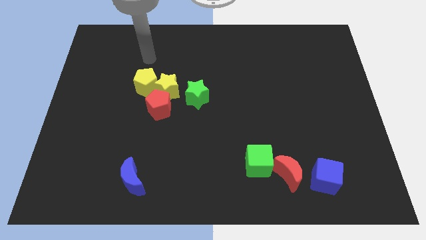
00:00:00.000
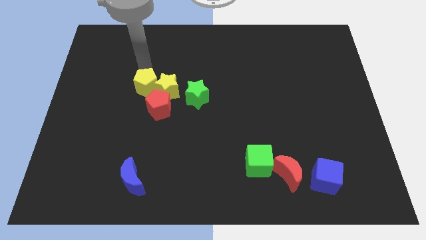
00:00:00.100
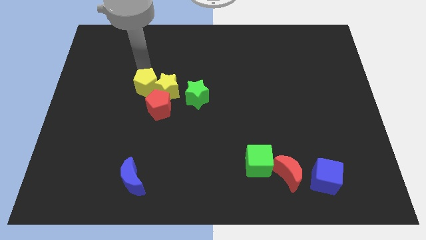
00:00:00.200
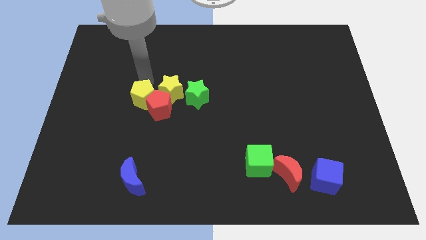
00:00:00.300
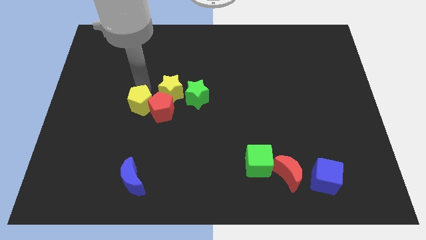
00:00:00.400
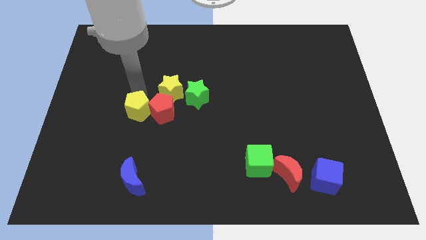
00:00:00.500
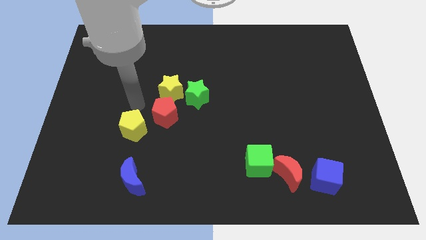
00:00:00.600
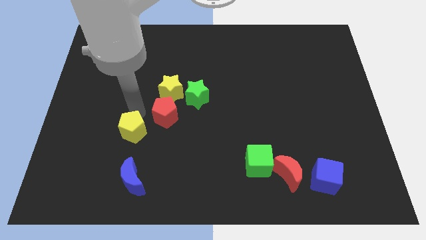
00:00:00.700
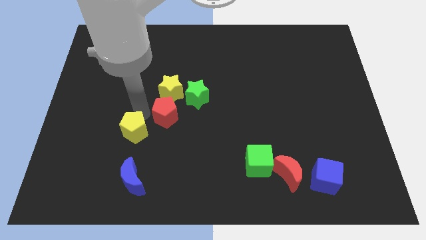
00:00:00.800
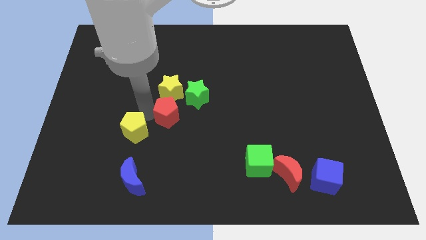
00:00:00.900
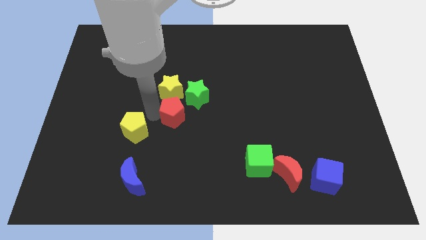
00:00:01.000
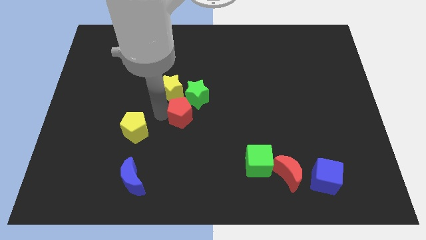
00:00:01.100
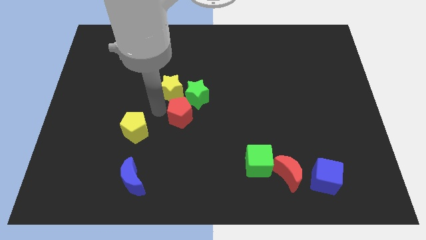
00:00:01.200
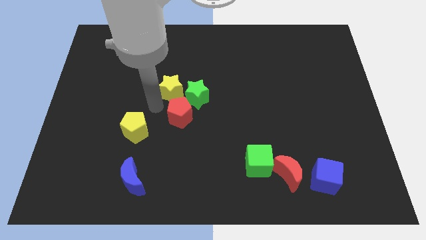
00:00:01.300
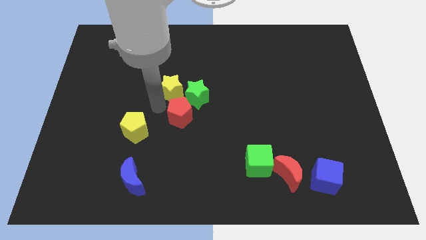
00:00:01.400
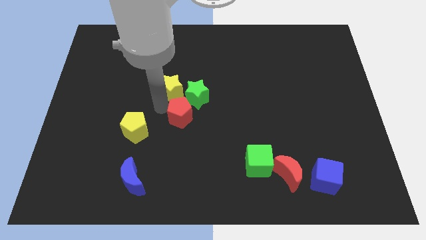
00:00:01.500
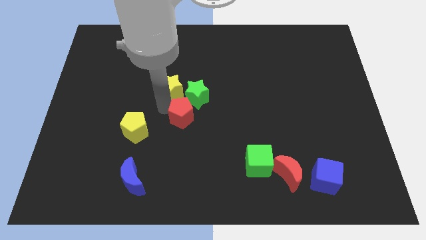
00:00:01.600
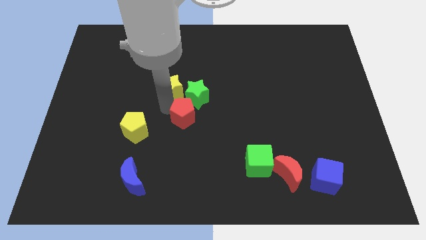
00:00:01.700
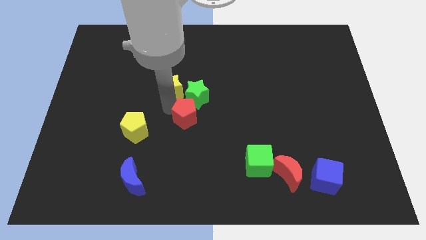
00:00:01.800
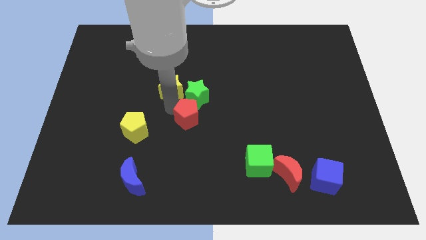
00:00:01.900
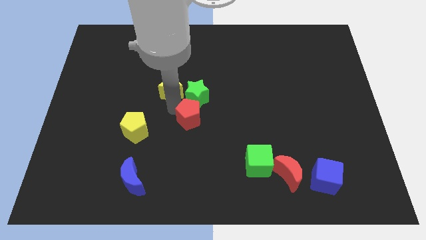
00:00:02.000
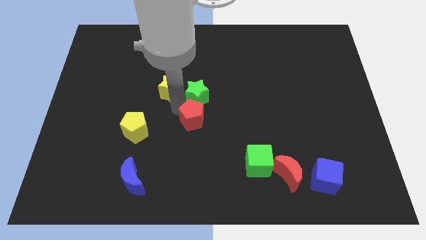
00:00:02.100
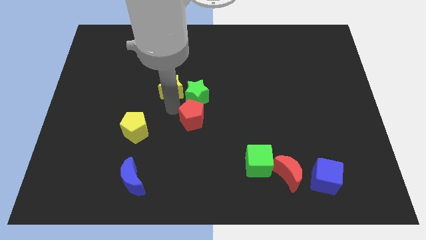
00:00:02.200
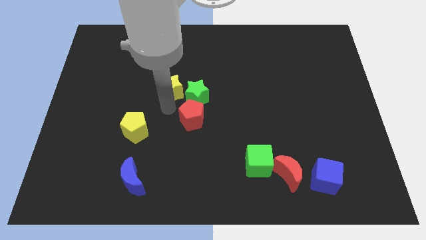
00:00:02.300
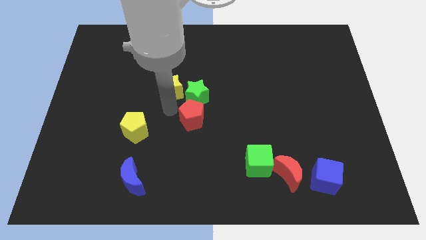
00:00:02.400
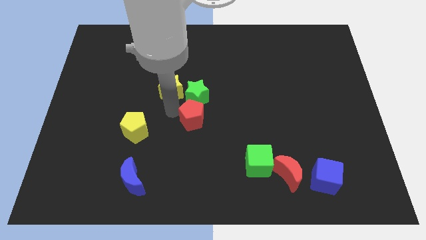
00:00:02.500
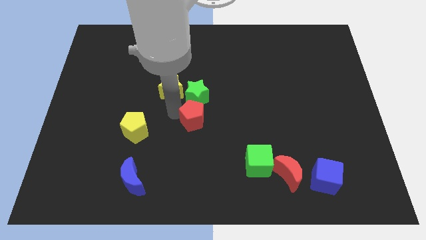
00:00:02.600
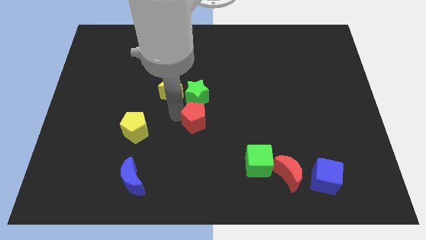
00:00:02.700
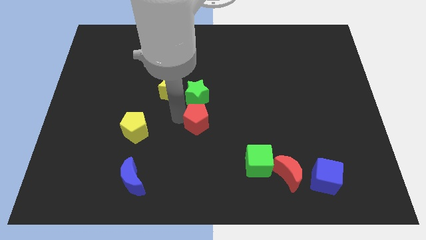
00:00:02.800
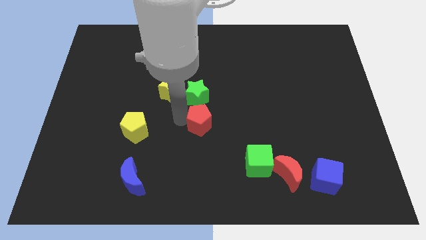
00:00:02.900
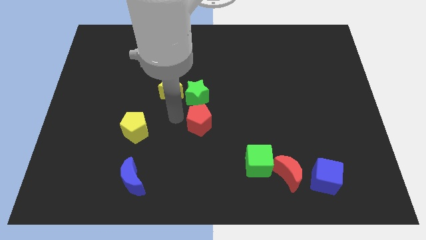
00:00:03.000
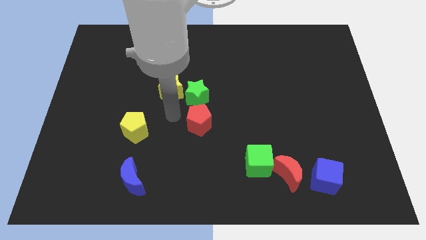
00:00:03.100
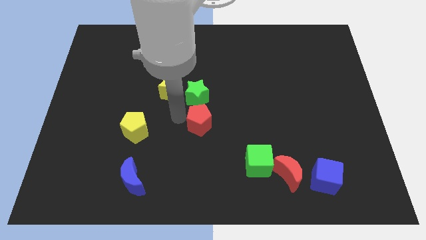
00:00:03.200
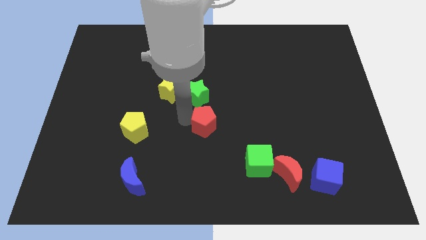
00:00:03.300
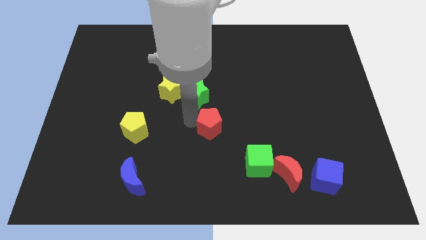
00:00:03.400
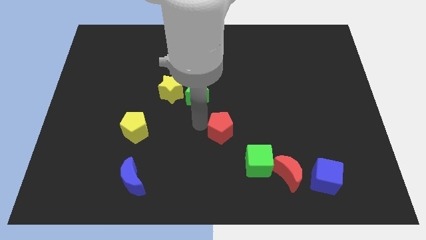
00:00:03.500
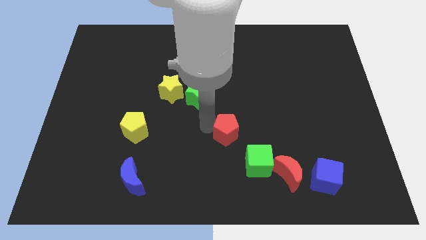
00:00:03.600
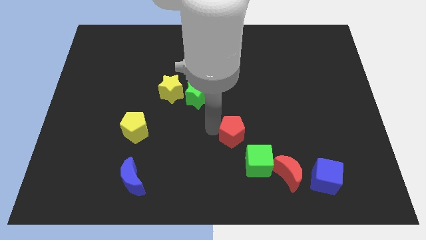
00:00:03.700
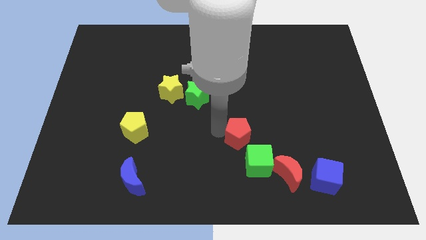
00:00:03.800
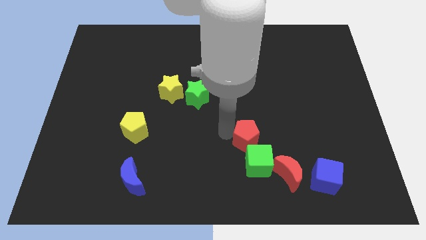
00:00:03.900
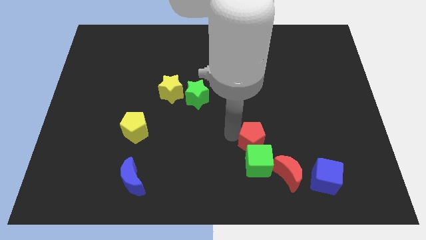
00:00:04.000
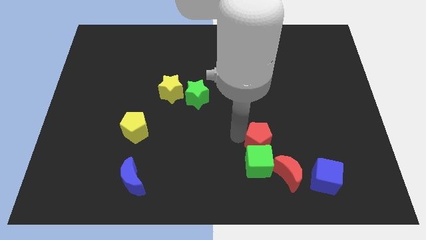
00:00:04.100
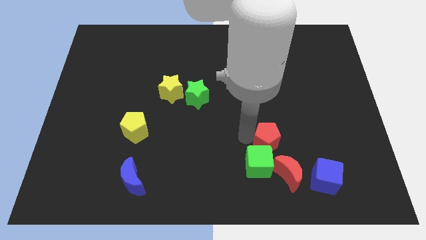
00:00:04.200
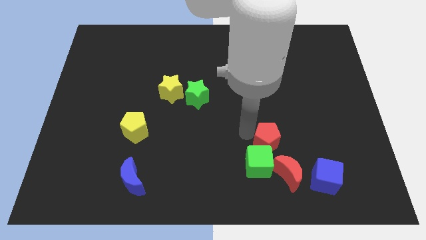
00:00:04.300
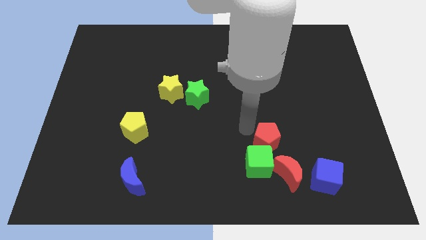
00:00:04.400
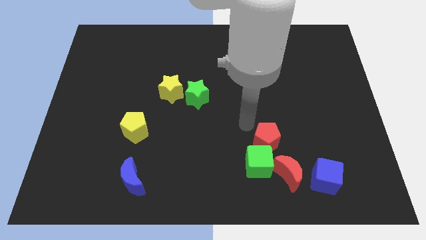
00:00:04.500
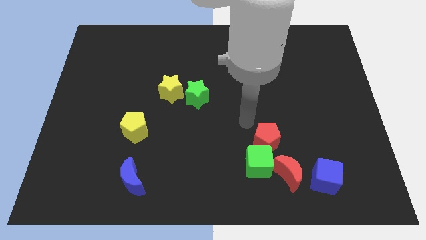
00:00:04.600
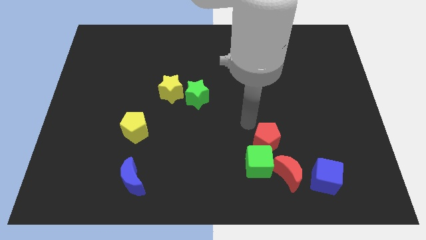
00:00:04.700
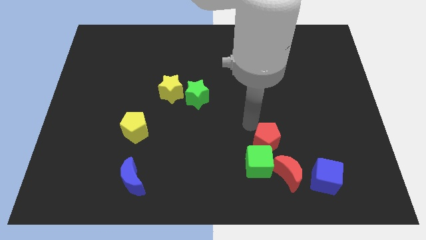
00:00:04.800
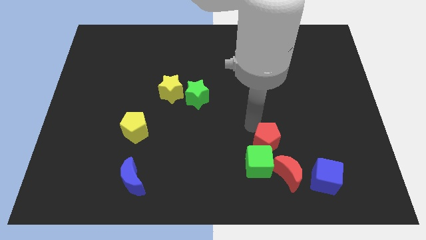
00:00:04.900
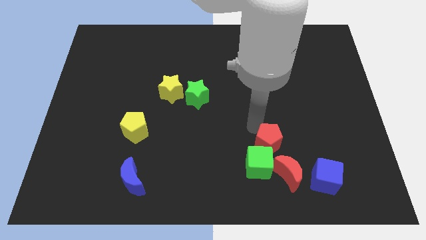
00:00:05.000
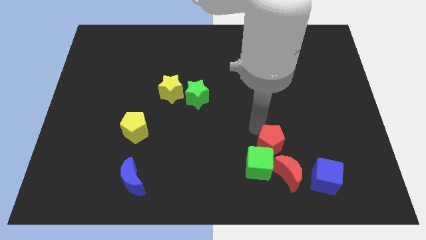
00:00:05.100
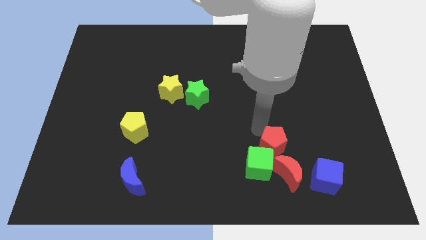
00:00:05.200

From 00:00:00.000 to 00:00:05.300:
put the red pentagon diagonally up and to the left of the blue cube

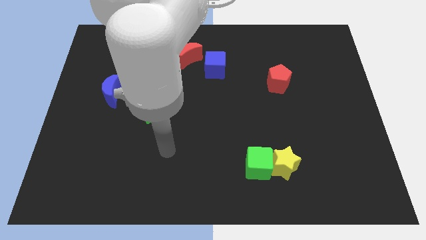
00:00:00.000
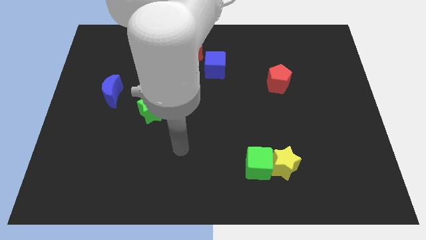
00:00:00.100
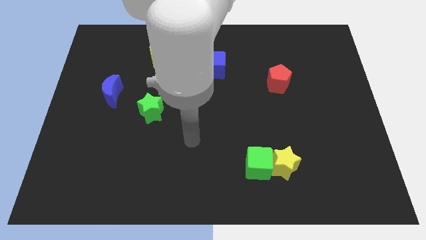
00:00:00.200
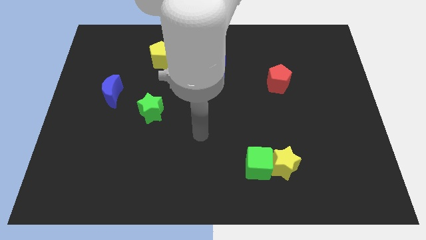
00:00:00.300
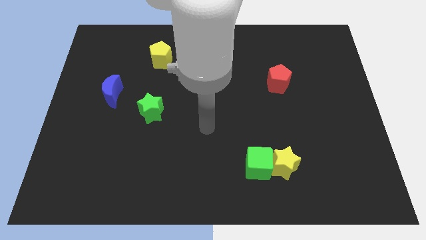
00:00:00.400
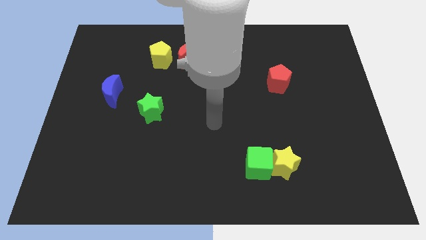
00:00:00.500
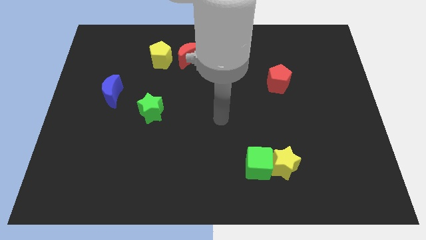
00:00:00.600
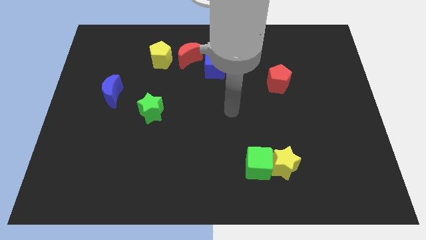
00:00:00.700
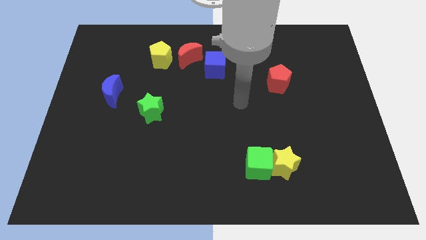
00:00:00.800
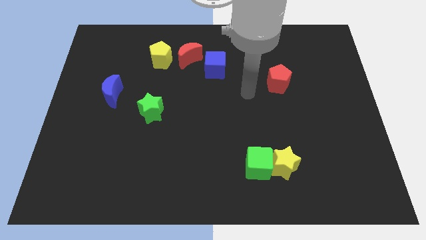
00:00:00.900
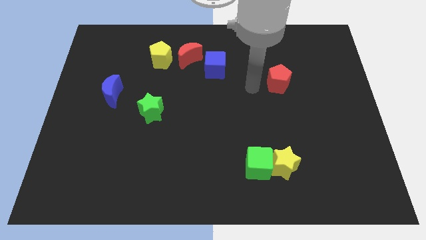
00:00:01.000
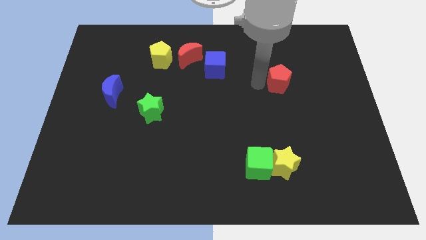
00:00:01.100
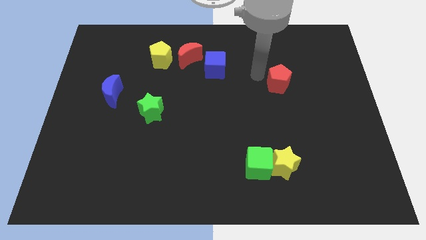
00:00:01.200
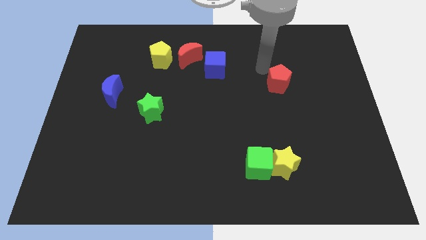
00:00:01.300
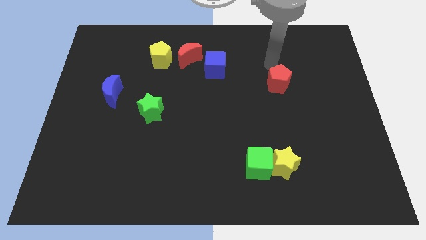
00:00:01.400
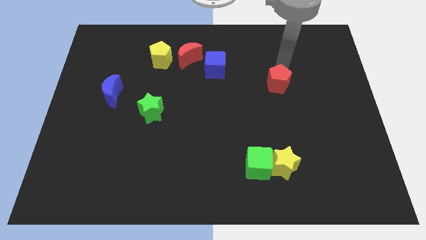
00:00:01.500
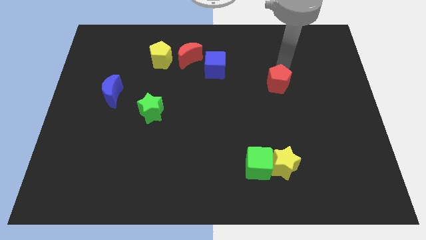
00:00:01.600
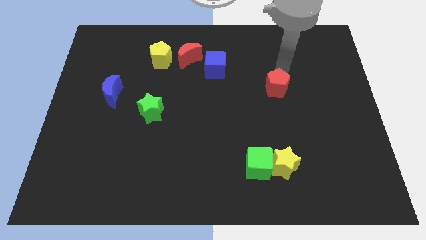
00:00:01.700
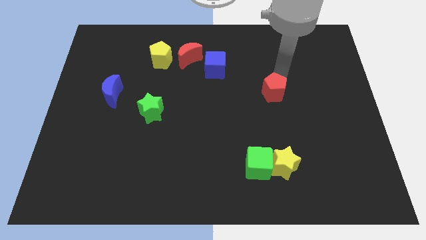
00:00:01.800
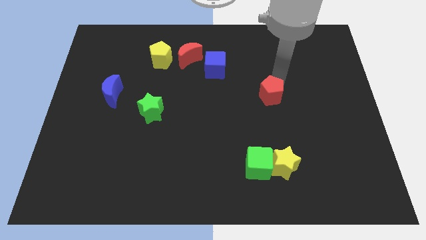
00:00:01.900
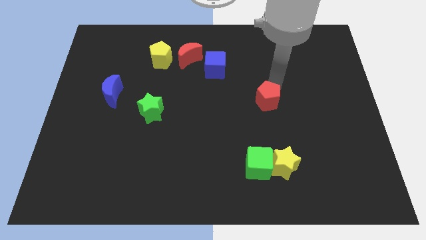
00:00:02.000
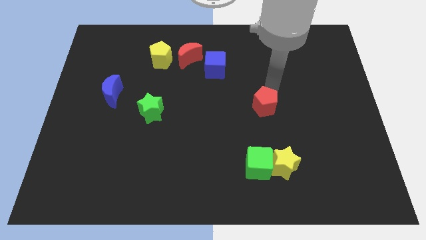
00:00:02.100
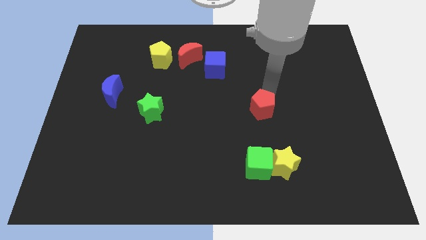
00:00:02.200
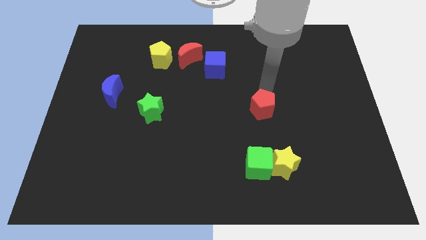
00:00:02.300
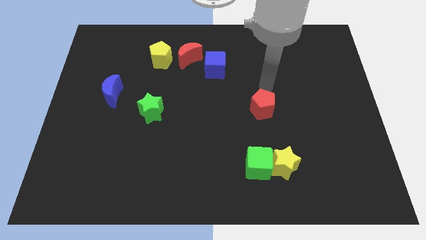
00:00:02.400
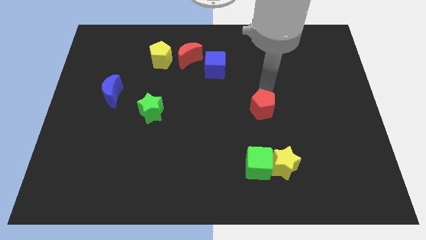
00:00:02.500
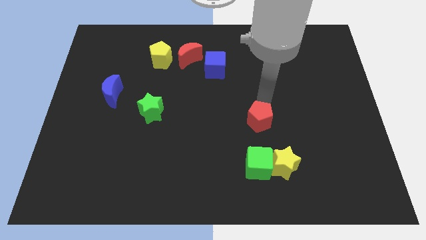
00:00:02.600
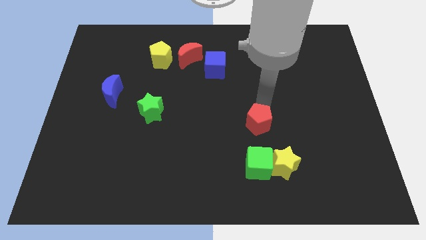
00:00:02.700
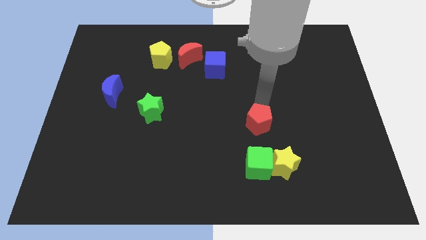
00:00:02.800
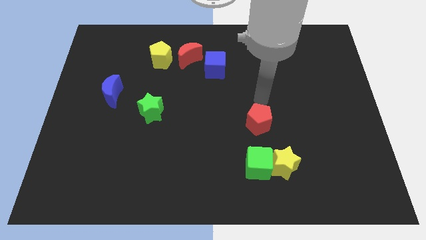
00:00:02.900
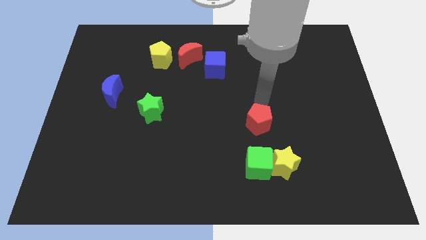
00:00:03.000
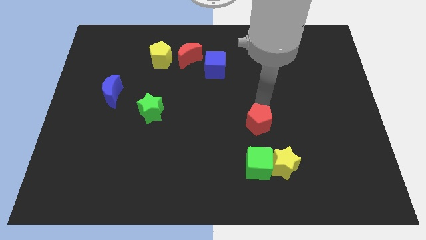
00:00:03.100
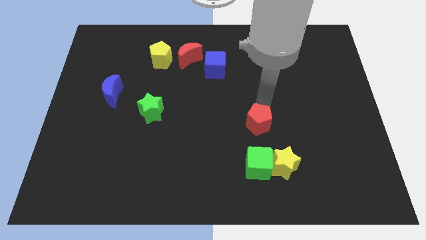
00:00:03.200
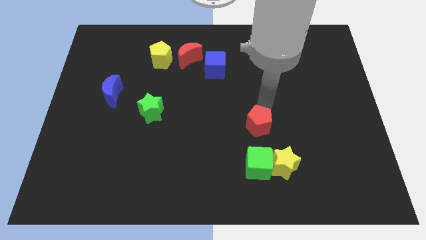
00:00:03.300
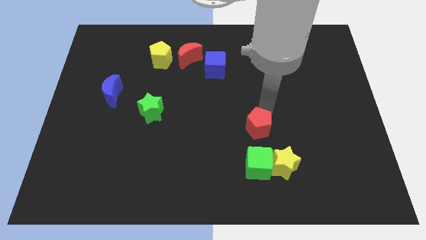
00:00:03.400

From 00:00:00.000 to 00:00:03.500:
put the red pentagon to the top left side of the yellow star
